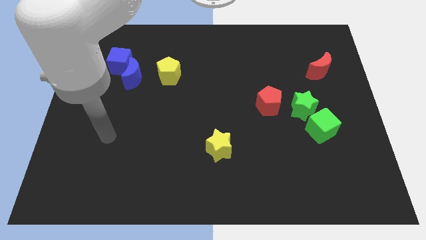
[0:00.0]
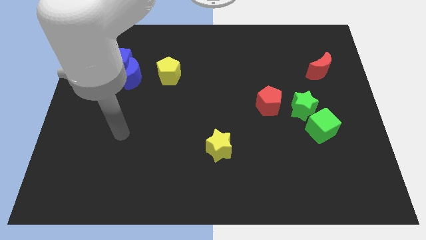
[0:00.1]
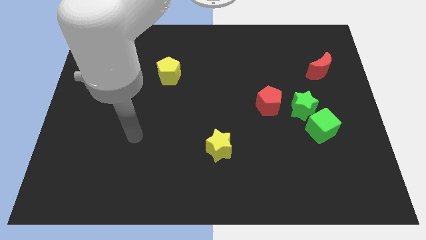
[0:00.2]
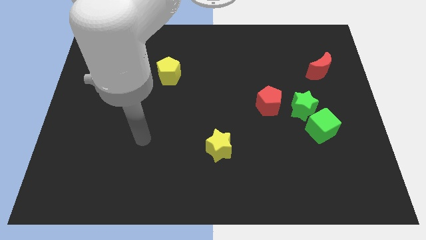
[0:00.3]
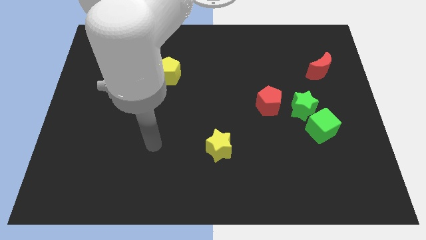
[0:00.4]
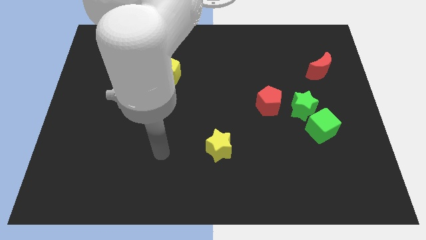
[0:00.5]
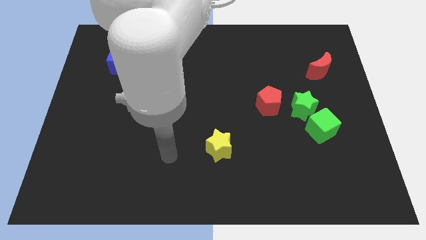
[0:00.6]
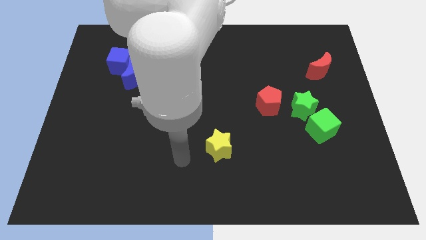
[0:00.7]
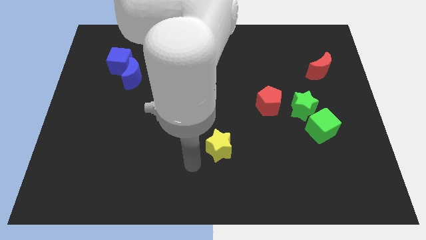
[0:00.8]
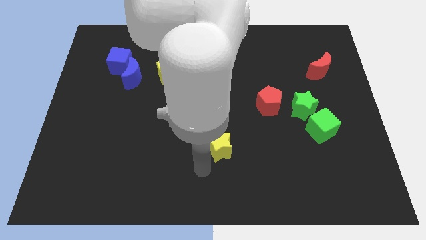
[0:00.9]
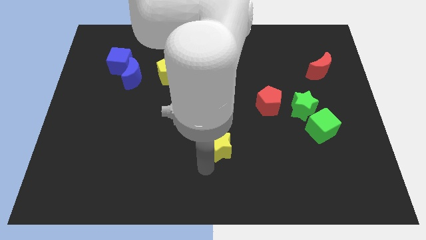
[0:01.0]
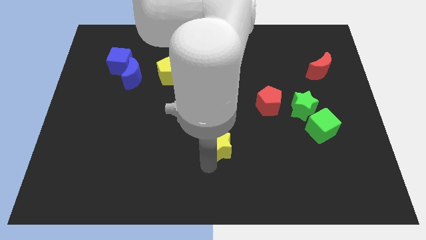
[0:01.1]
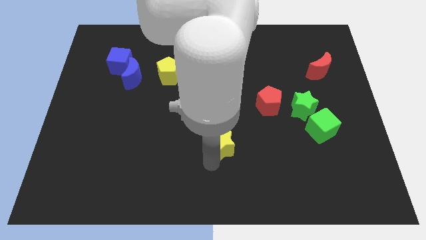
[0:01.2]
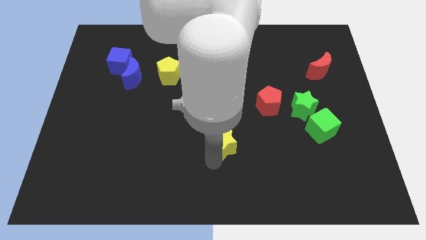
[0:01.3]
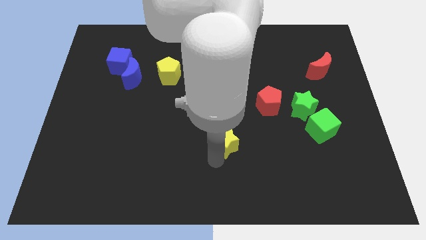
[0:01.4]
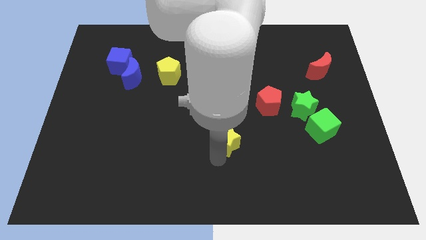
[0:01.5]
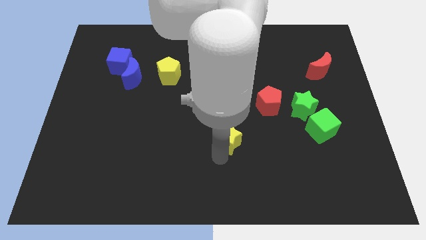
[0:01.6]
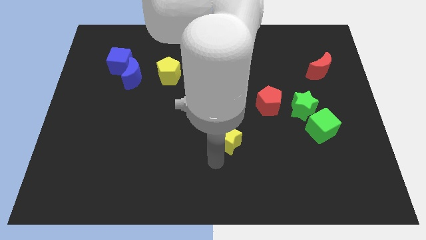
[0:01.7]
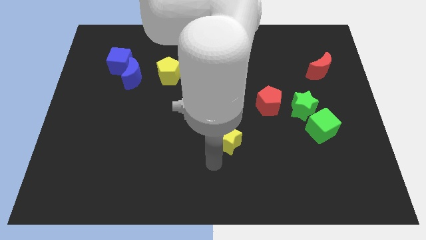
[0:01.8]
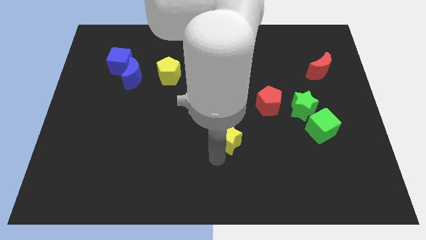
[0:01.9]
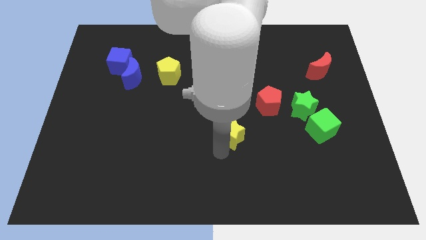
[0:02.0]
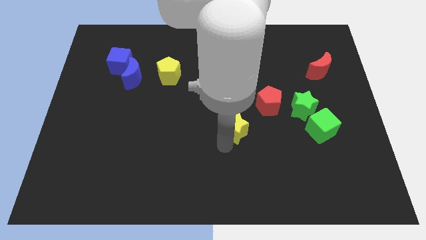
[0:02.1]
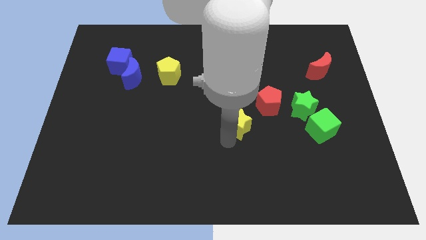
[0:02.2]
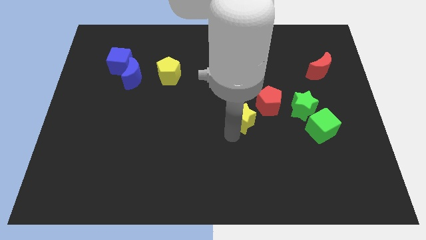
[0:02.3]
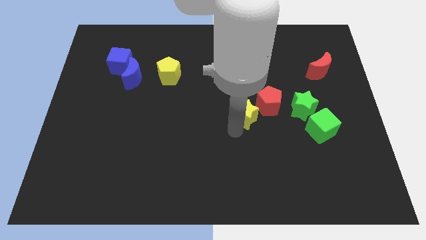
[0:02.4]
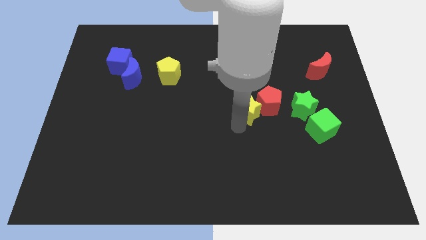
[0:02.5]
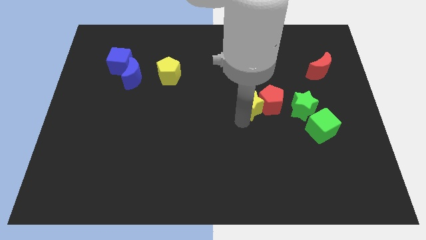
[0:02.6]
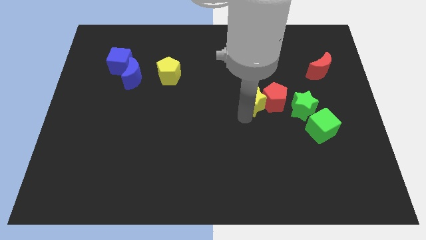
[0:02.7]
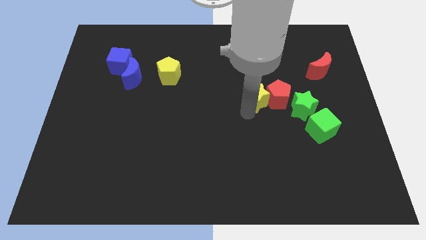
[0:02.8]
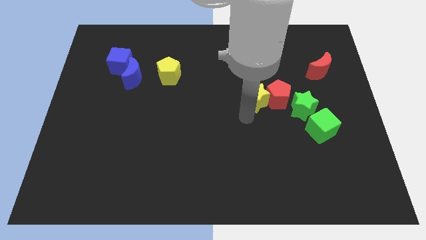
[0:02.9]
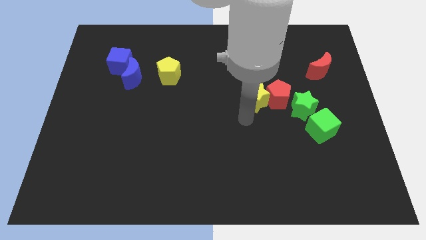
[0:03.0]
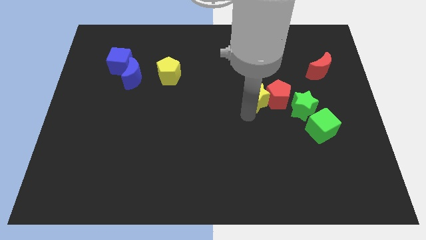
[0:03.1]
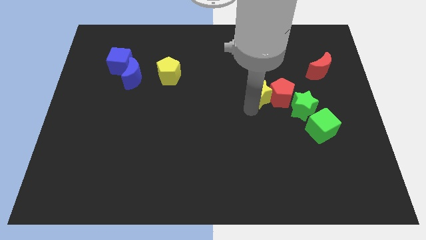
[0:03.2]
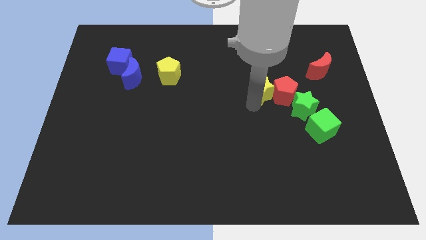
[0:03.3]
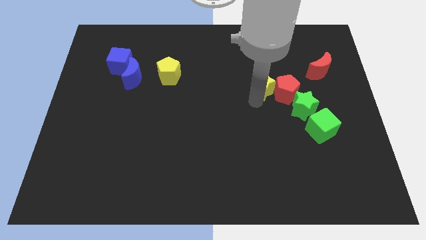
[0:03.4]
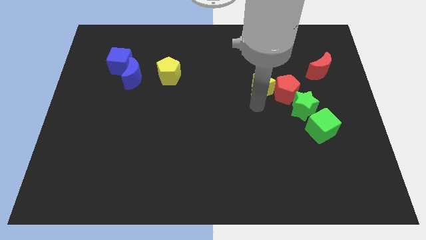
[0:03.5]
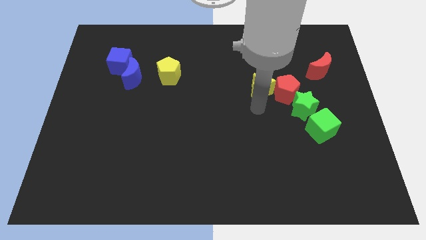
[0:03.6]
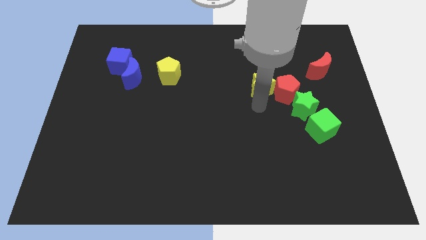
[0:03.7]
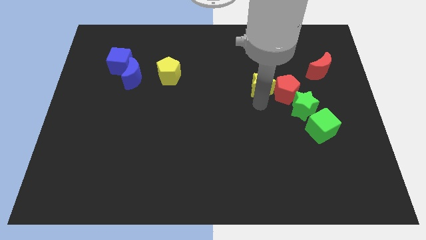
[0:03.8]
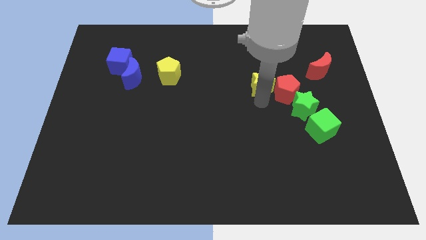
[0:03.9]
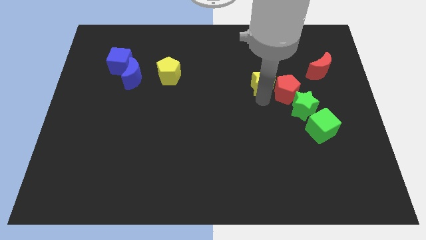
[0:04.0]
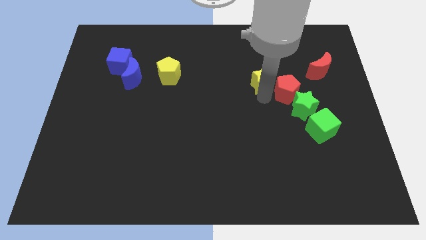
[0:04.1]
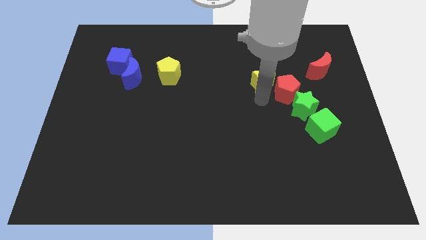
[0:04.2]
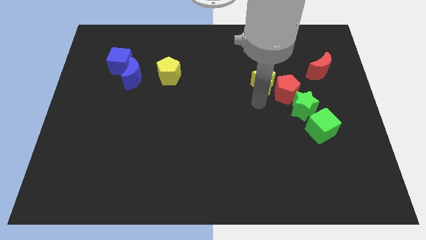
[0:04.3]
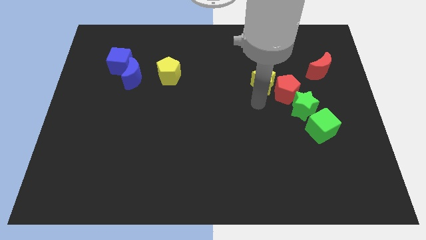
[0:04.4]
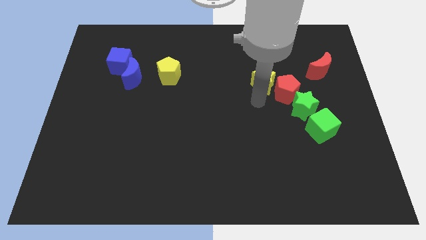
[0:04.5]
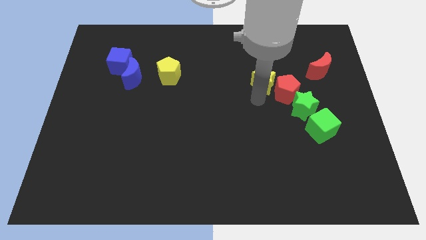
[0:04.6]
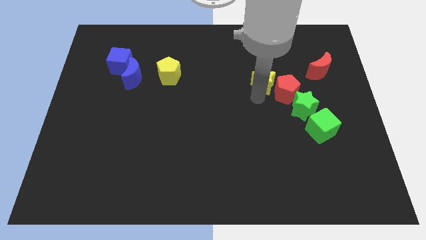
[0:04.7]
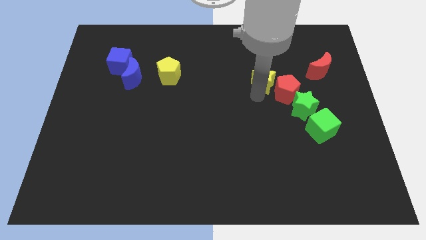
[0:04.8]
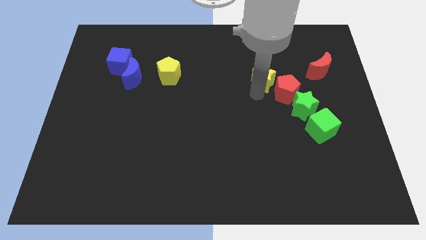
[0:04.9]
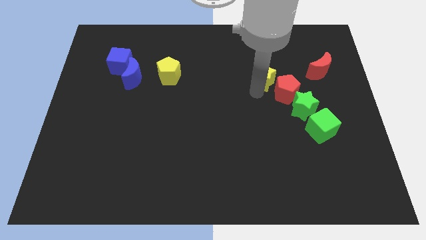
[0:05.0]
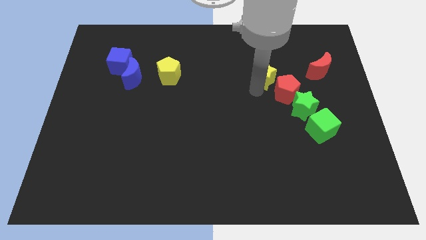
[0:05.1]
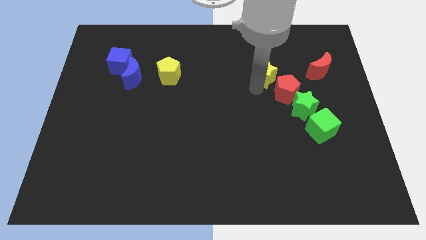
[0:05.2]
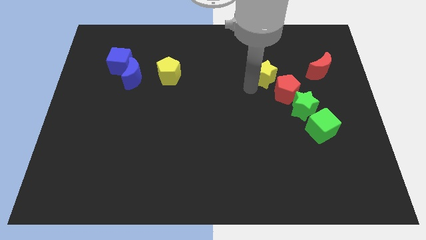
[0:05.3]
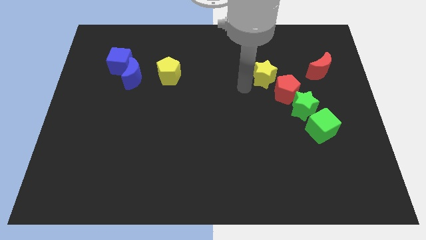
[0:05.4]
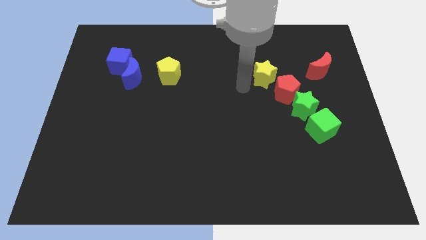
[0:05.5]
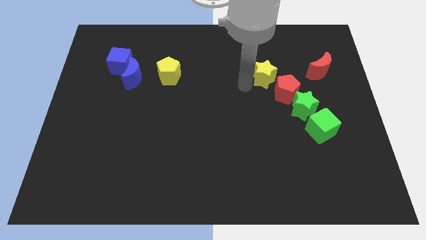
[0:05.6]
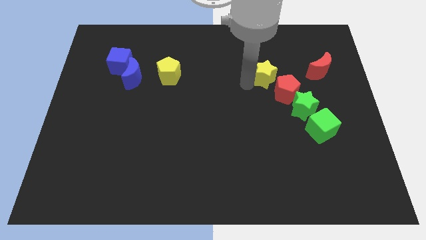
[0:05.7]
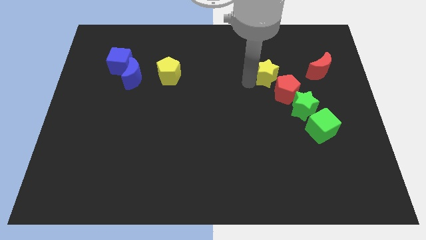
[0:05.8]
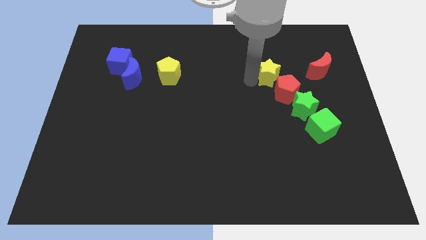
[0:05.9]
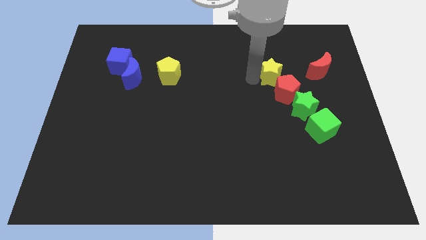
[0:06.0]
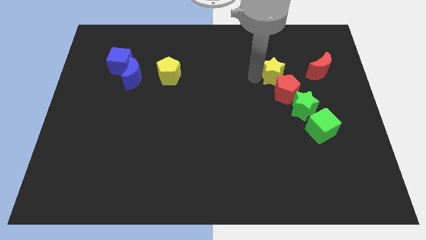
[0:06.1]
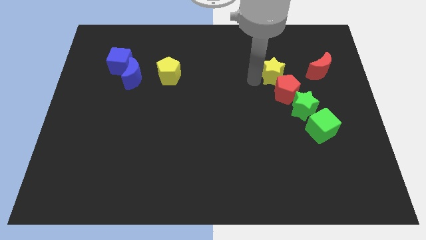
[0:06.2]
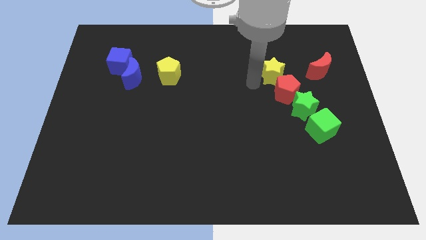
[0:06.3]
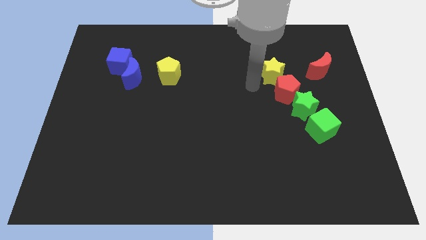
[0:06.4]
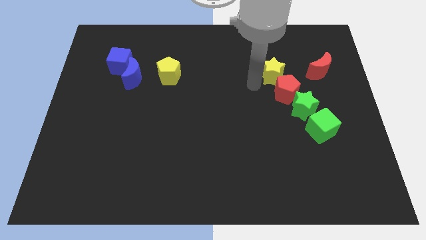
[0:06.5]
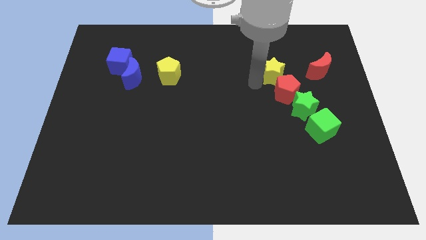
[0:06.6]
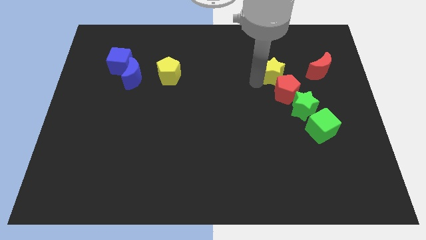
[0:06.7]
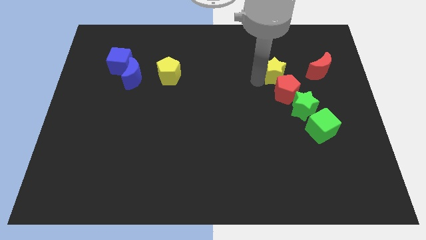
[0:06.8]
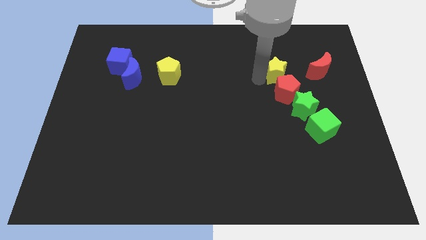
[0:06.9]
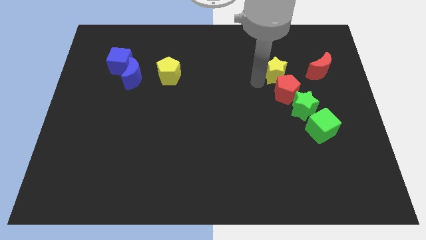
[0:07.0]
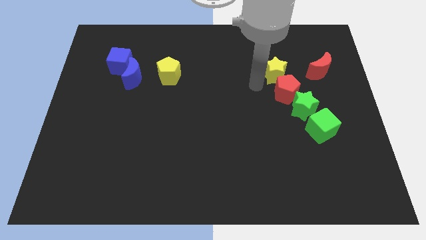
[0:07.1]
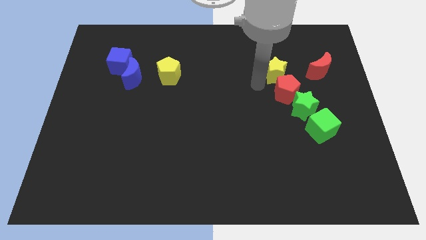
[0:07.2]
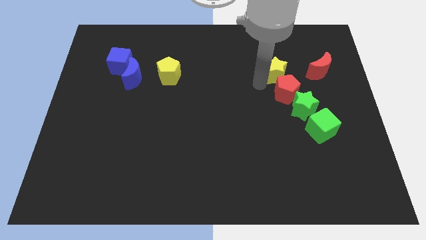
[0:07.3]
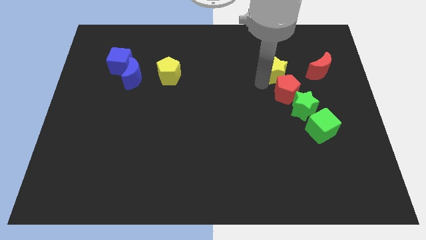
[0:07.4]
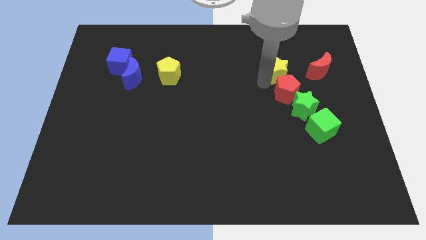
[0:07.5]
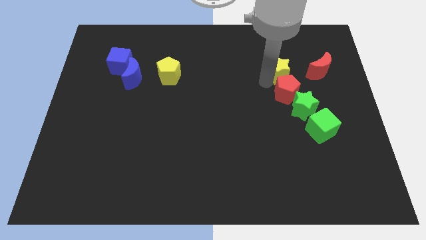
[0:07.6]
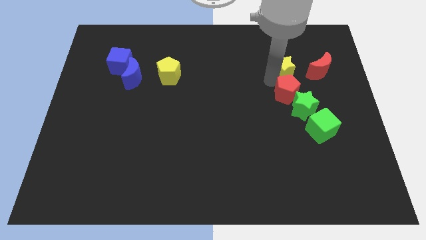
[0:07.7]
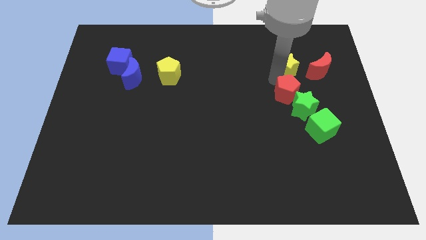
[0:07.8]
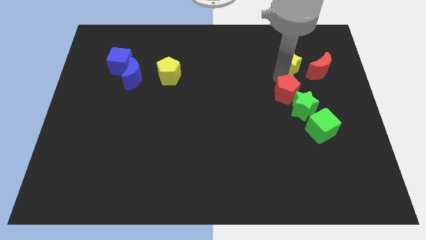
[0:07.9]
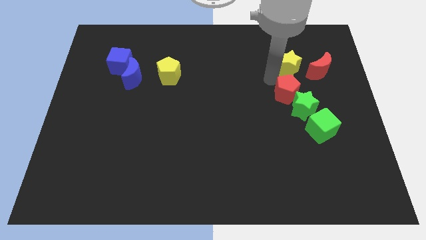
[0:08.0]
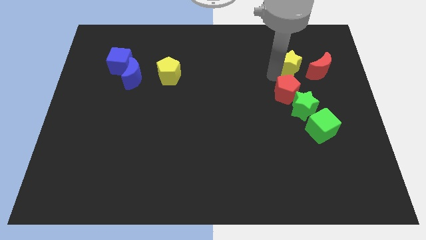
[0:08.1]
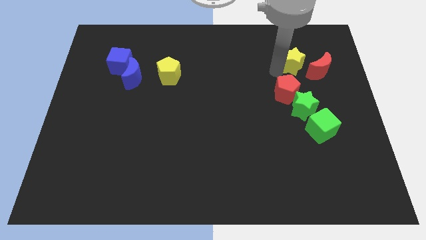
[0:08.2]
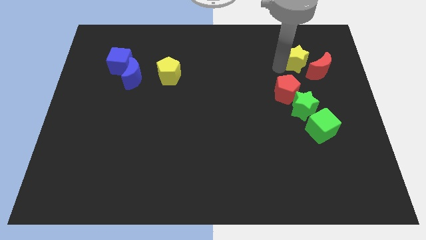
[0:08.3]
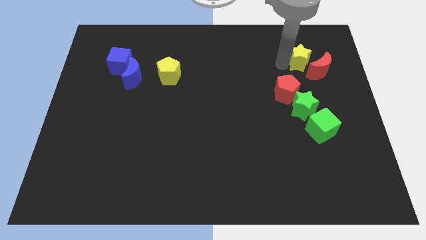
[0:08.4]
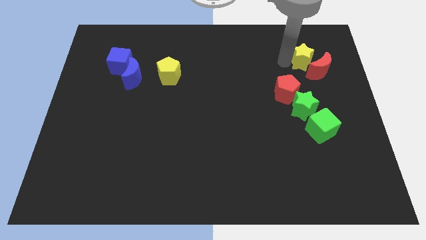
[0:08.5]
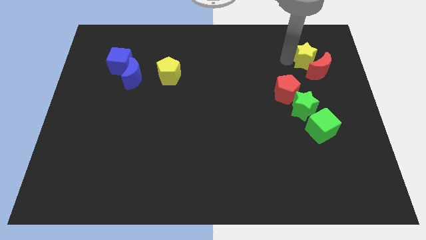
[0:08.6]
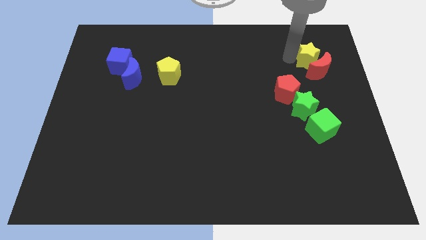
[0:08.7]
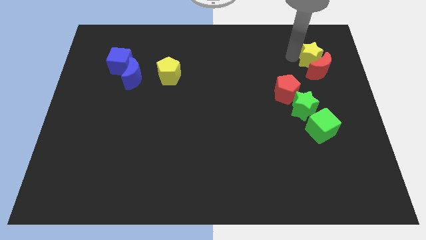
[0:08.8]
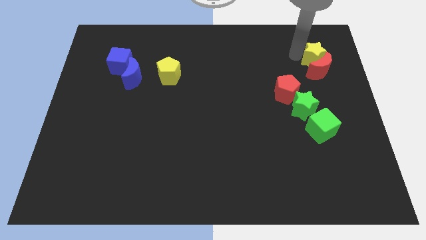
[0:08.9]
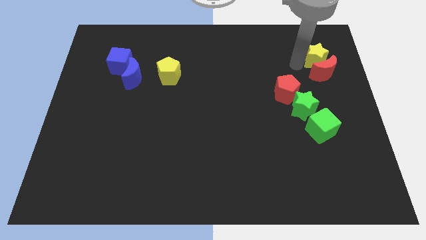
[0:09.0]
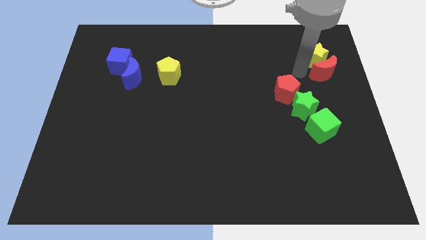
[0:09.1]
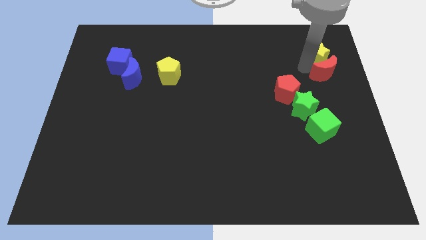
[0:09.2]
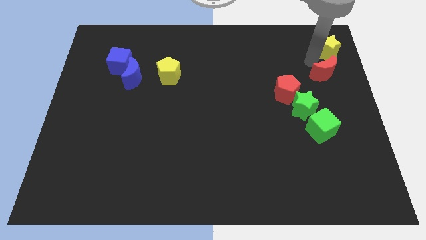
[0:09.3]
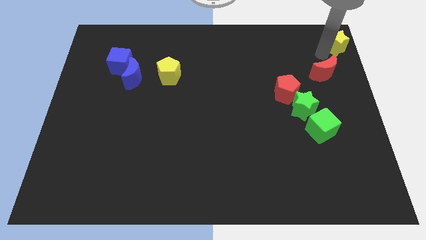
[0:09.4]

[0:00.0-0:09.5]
slide the yellow star to the top right corner
